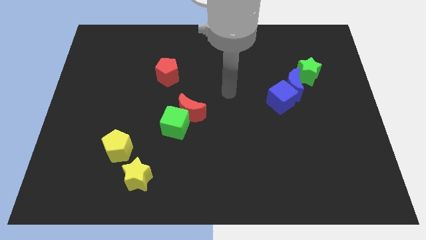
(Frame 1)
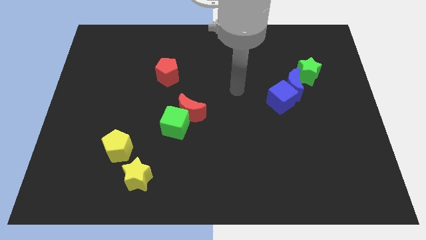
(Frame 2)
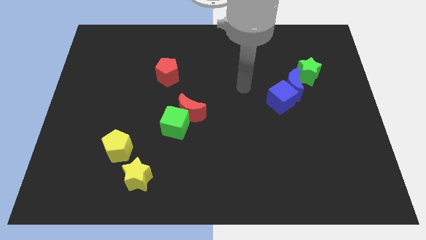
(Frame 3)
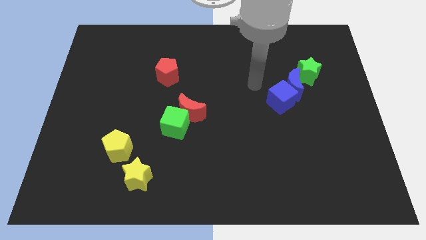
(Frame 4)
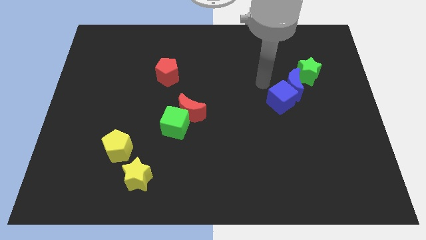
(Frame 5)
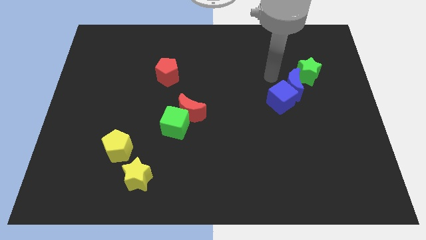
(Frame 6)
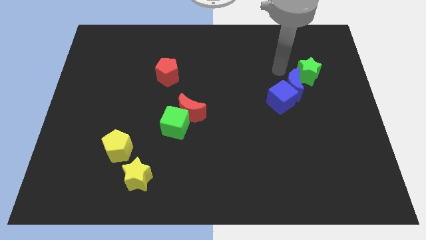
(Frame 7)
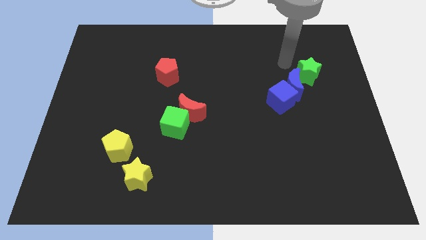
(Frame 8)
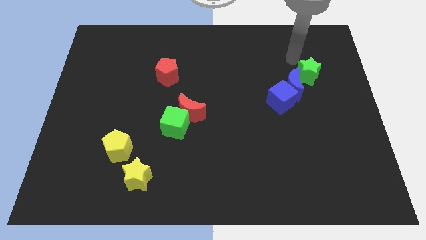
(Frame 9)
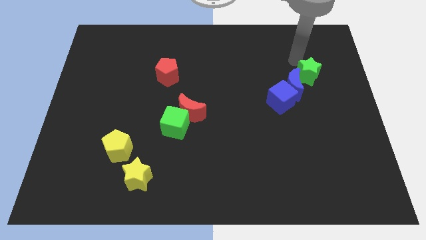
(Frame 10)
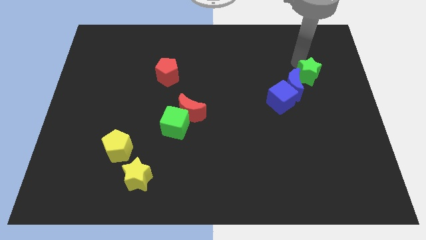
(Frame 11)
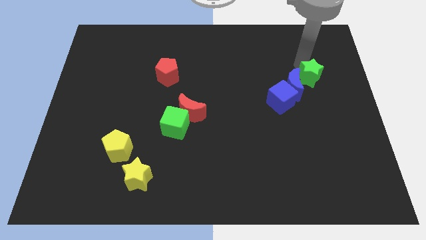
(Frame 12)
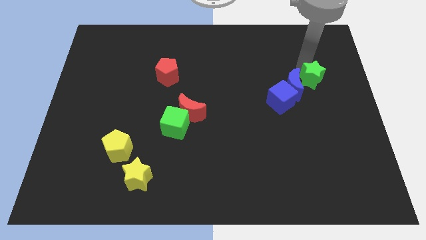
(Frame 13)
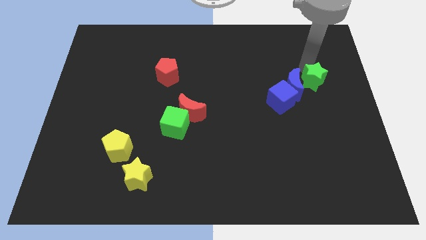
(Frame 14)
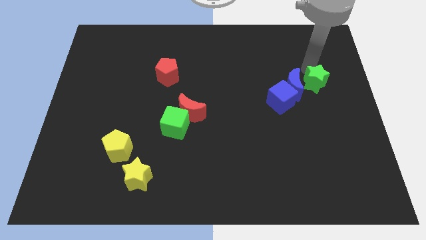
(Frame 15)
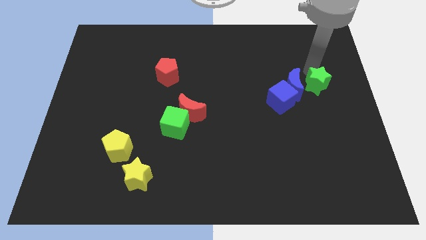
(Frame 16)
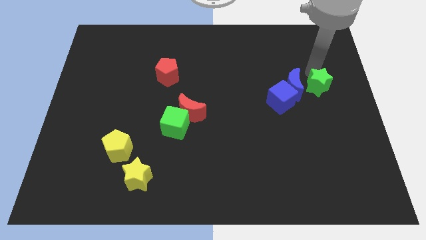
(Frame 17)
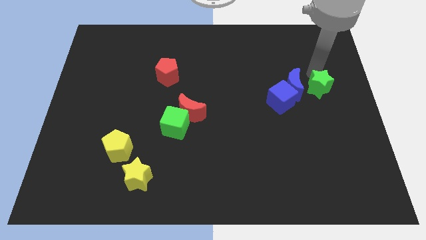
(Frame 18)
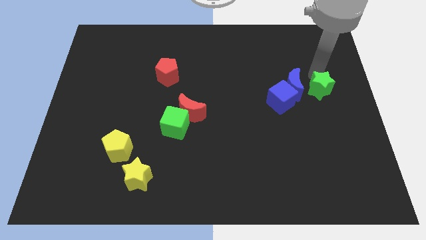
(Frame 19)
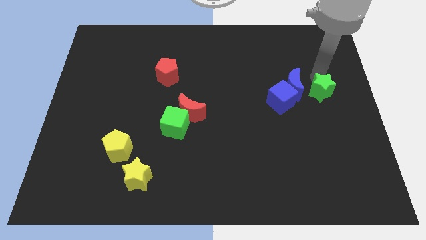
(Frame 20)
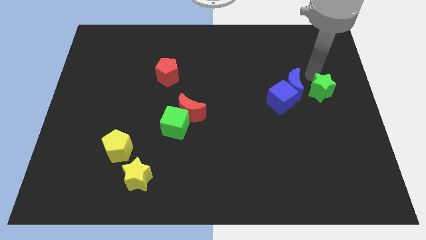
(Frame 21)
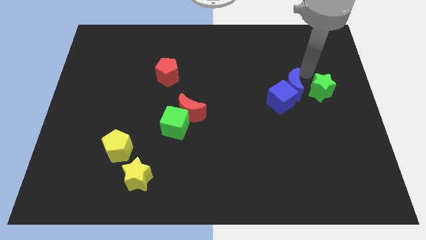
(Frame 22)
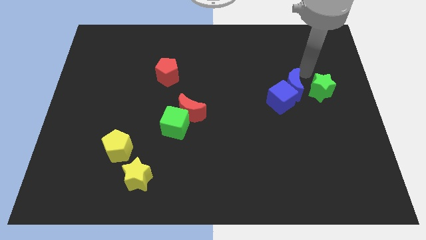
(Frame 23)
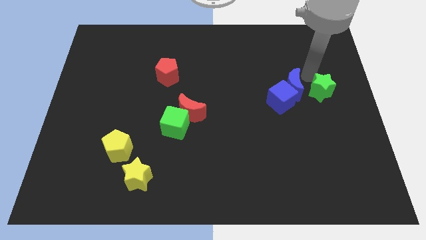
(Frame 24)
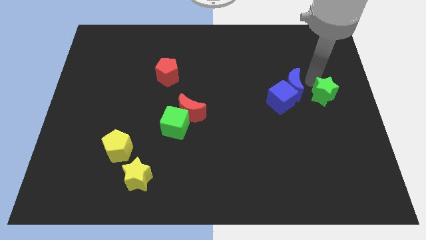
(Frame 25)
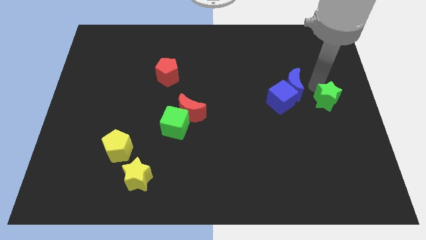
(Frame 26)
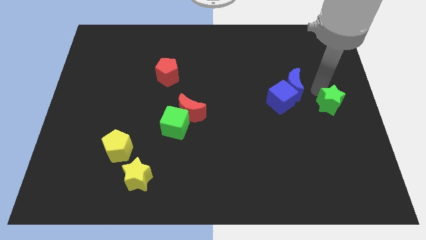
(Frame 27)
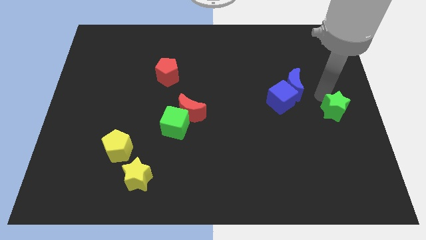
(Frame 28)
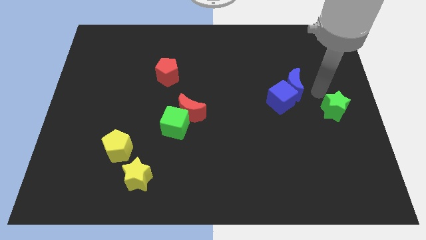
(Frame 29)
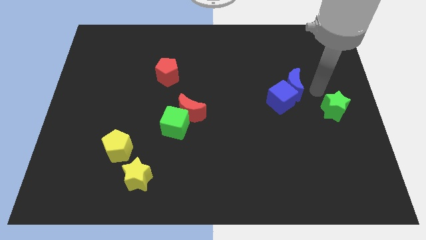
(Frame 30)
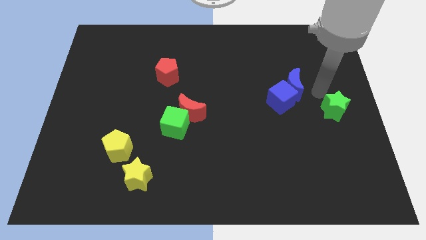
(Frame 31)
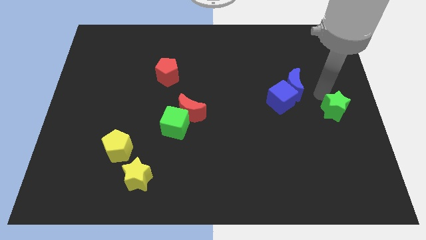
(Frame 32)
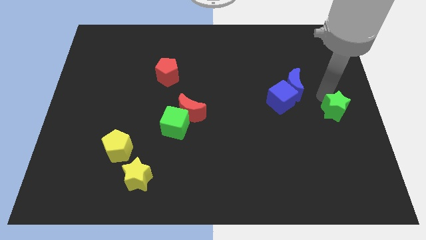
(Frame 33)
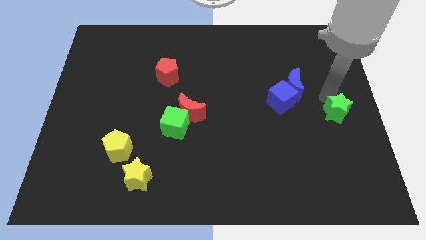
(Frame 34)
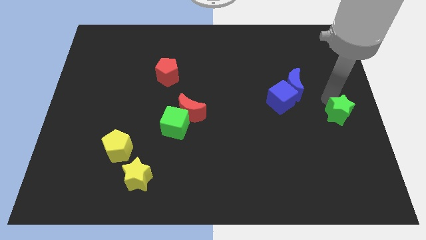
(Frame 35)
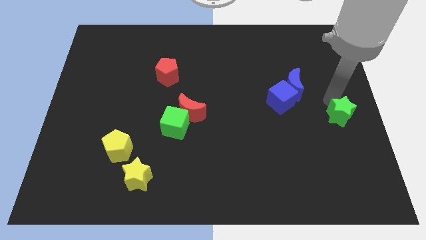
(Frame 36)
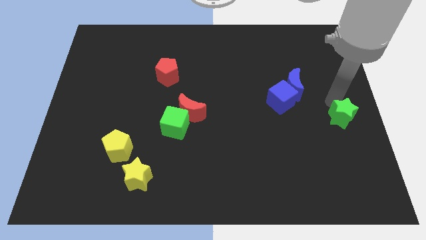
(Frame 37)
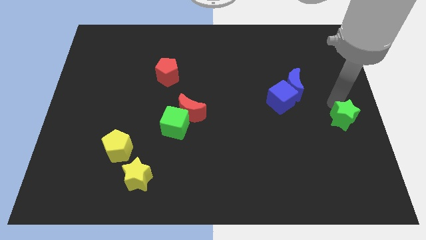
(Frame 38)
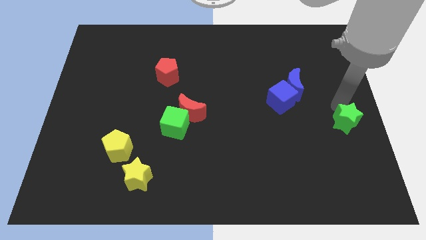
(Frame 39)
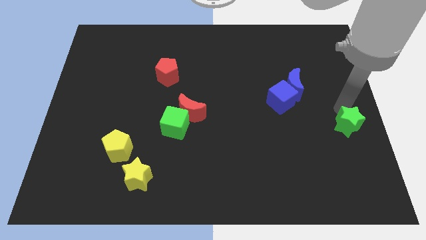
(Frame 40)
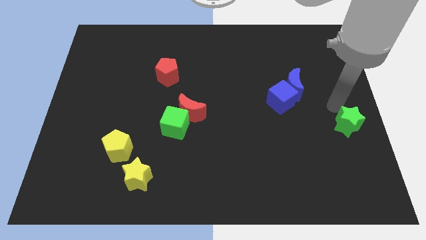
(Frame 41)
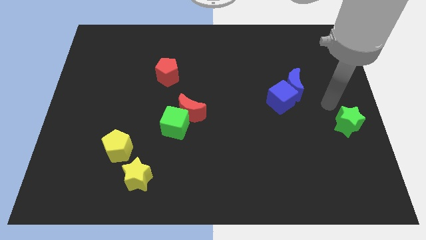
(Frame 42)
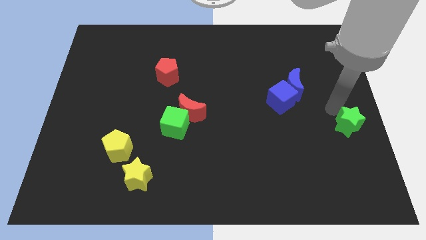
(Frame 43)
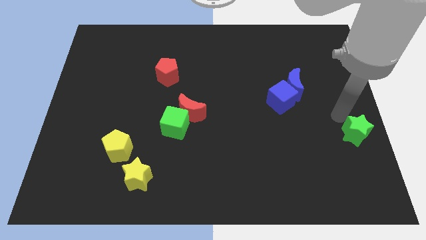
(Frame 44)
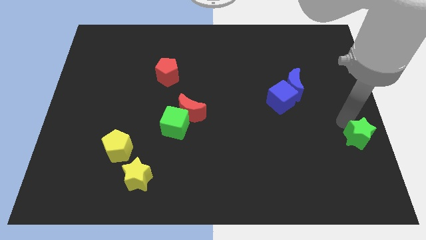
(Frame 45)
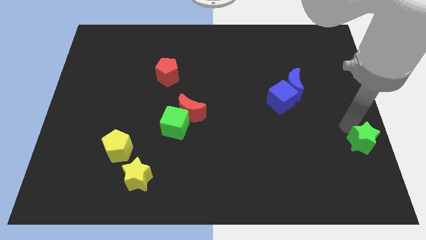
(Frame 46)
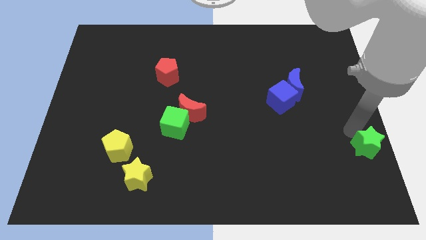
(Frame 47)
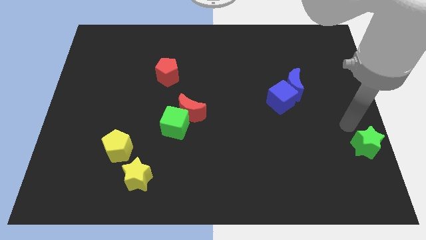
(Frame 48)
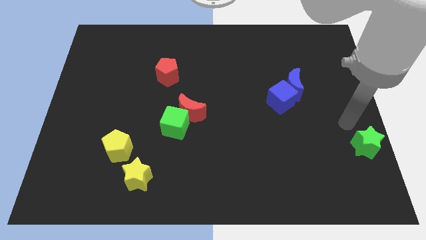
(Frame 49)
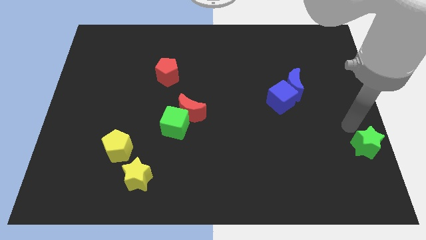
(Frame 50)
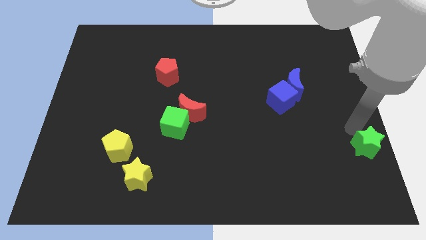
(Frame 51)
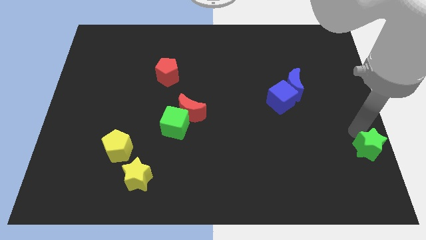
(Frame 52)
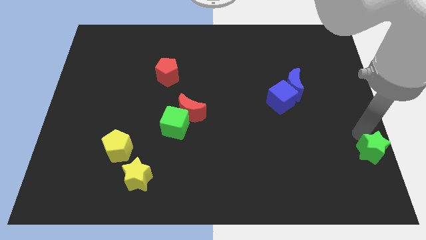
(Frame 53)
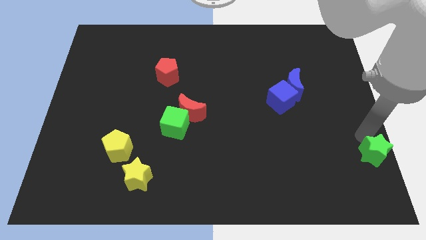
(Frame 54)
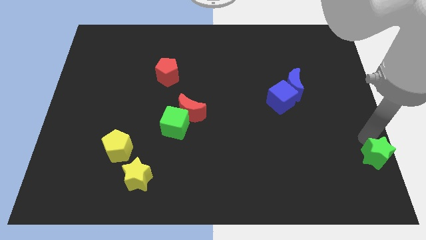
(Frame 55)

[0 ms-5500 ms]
slide the green star to the lower right corner

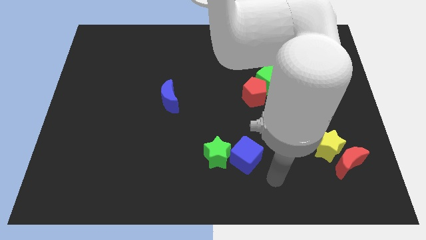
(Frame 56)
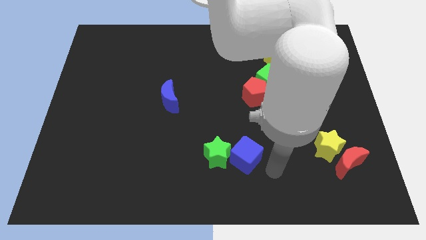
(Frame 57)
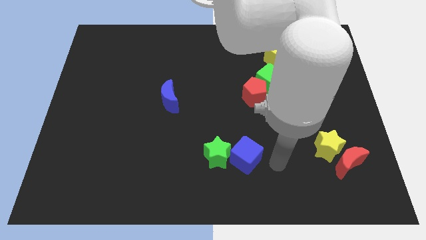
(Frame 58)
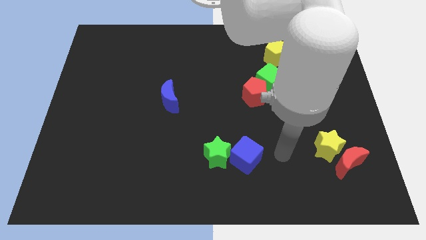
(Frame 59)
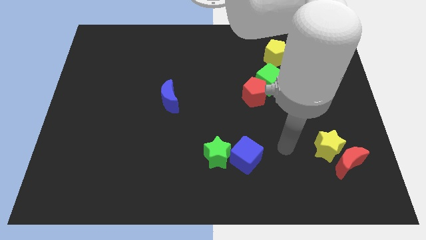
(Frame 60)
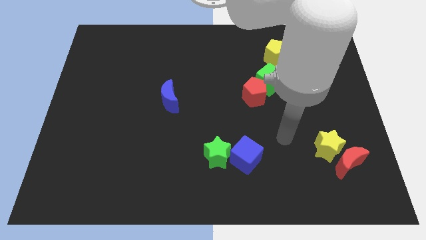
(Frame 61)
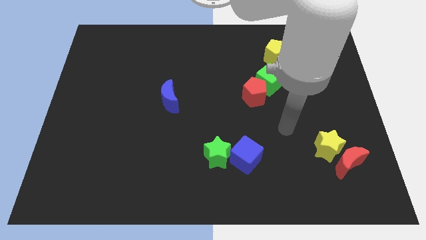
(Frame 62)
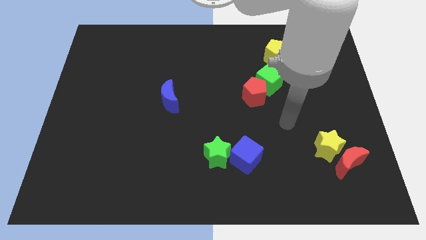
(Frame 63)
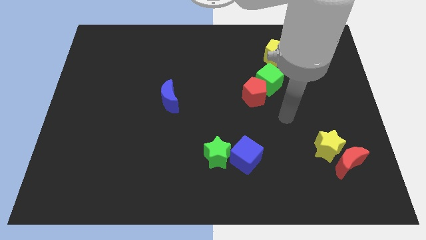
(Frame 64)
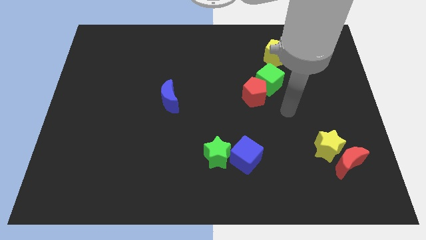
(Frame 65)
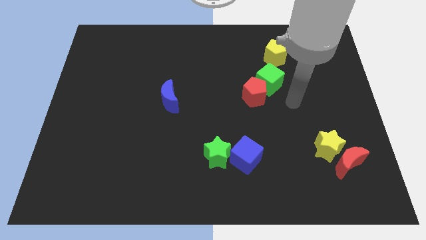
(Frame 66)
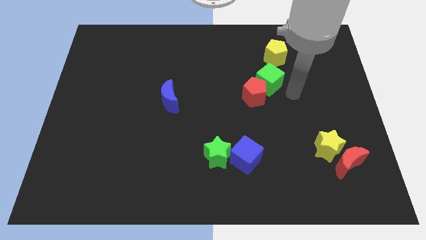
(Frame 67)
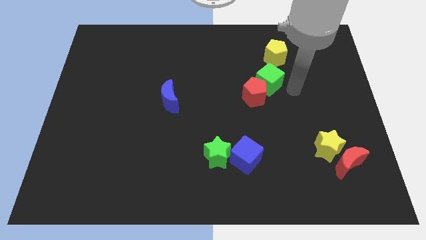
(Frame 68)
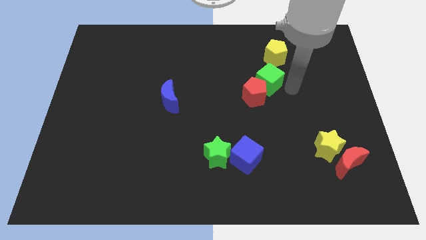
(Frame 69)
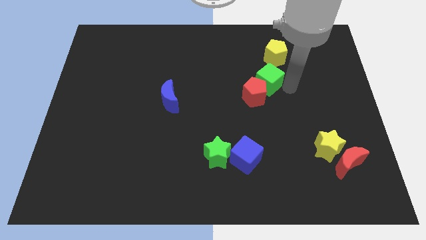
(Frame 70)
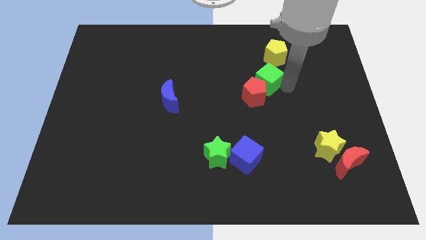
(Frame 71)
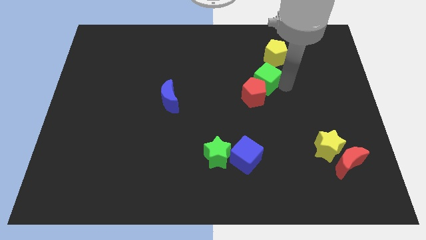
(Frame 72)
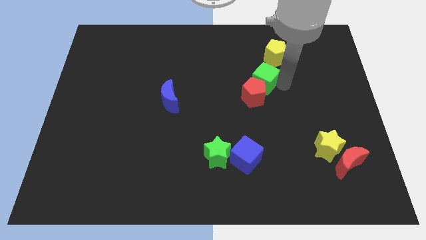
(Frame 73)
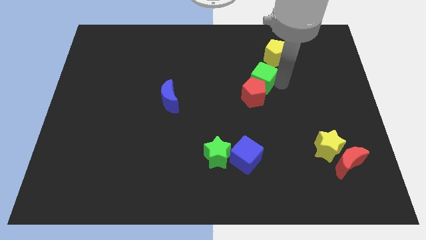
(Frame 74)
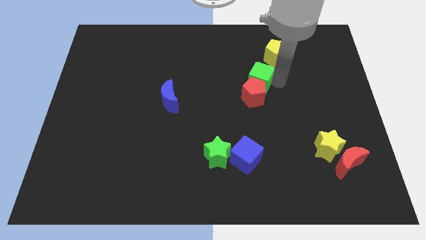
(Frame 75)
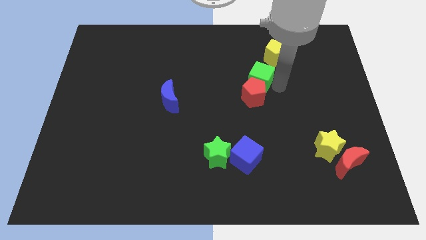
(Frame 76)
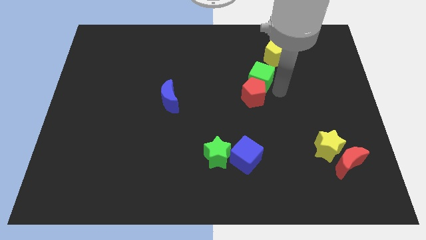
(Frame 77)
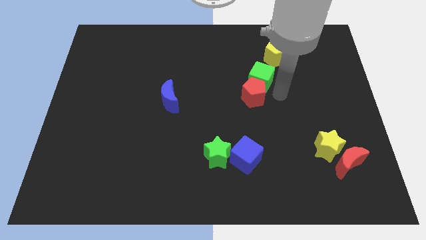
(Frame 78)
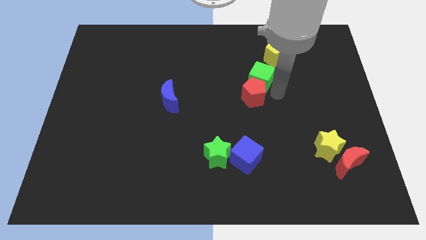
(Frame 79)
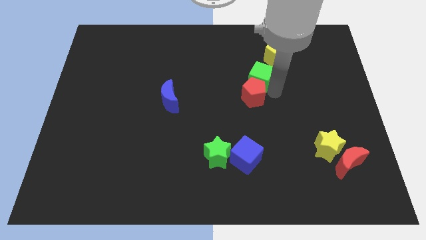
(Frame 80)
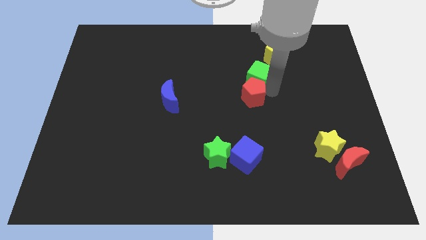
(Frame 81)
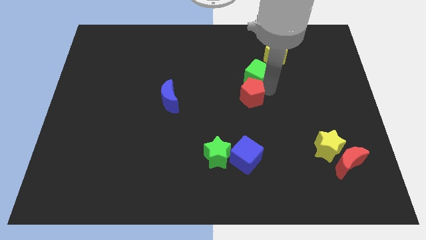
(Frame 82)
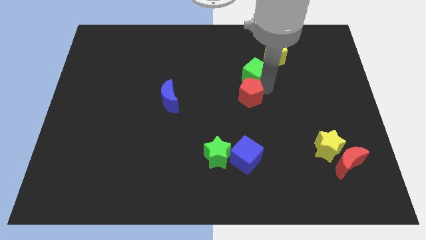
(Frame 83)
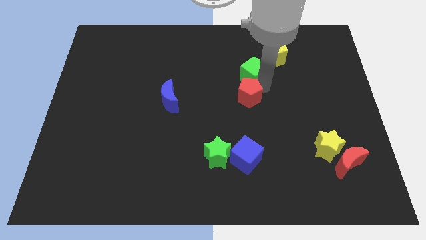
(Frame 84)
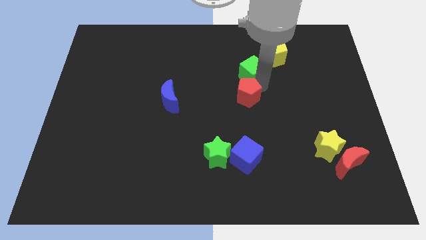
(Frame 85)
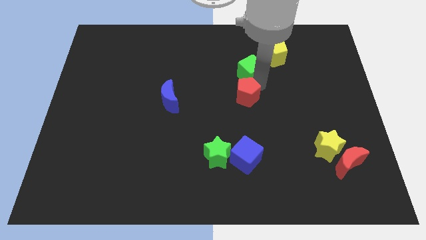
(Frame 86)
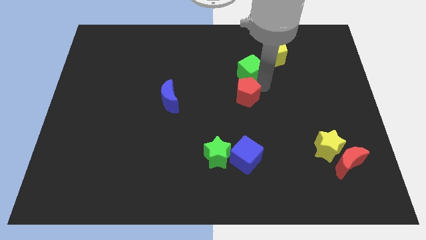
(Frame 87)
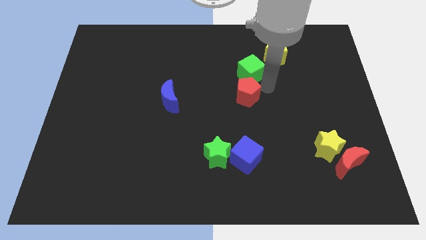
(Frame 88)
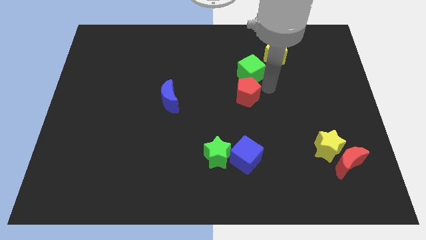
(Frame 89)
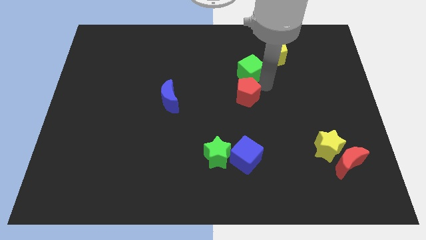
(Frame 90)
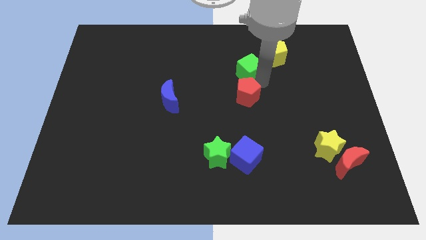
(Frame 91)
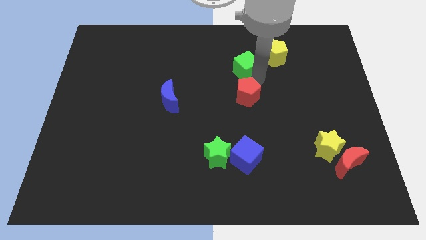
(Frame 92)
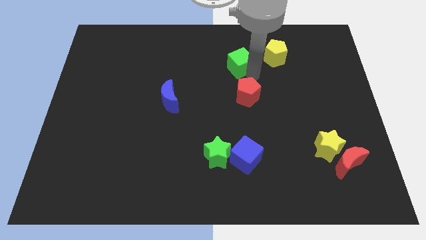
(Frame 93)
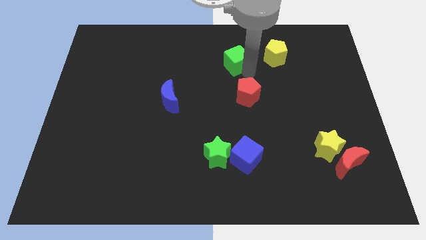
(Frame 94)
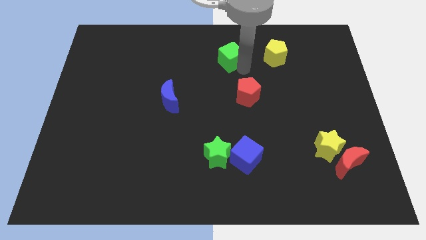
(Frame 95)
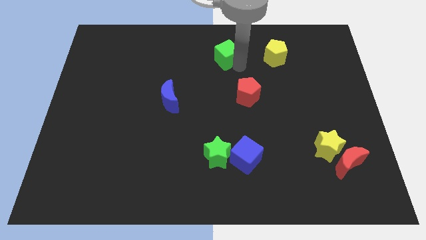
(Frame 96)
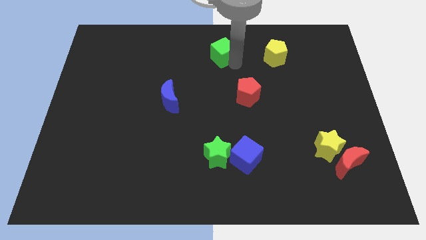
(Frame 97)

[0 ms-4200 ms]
slide the green cube to the top
